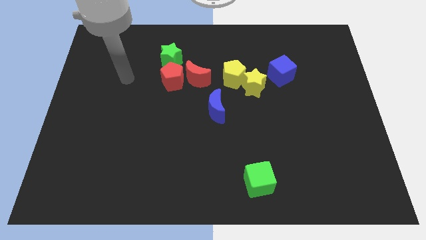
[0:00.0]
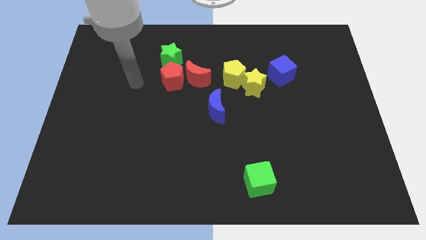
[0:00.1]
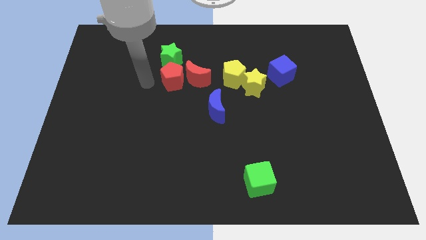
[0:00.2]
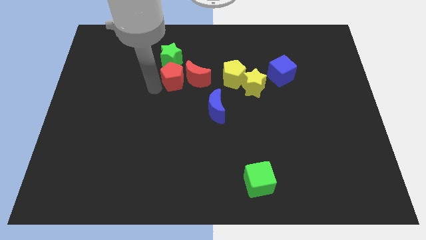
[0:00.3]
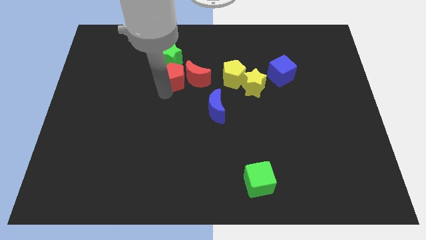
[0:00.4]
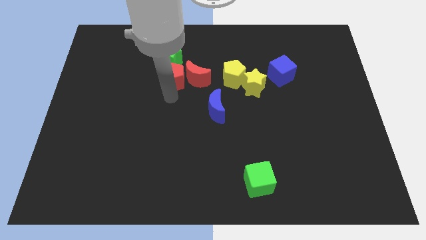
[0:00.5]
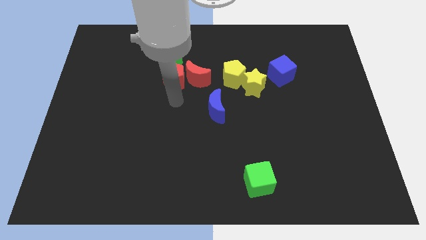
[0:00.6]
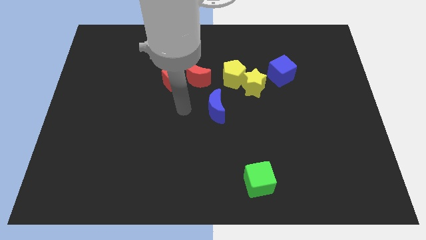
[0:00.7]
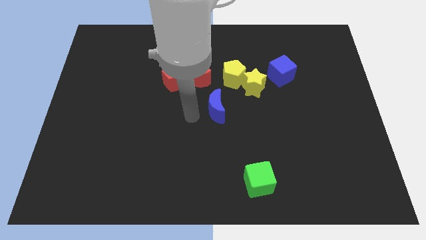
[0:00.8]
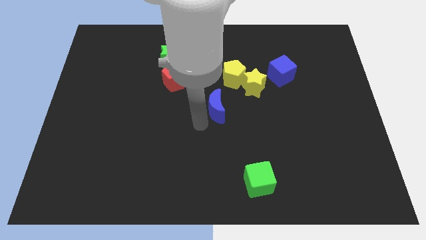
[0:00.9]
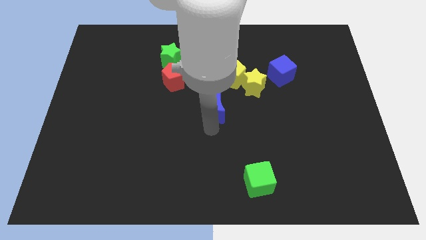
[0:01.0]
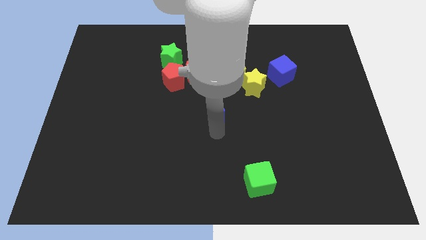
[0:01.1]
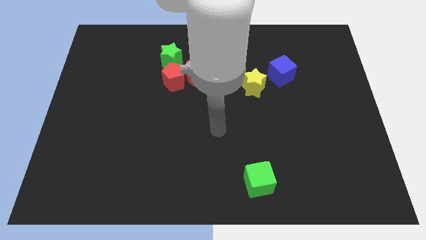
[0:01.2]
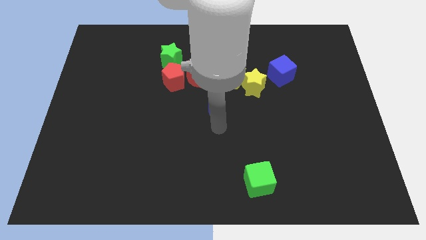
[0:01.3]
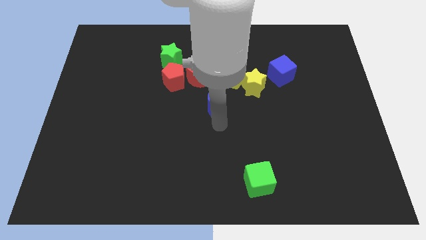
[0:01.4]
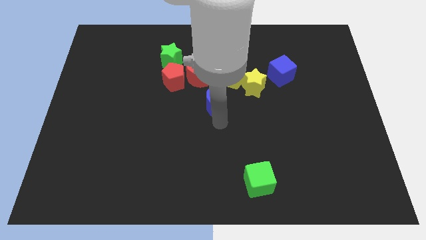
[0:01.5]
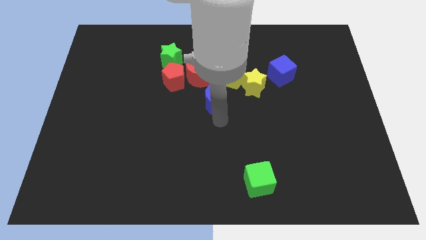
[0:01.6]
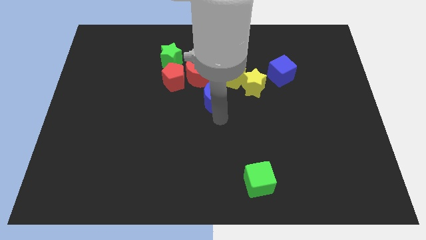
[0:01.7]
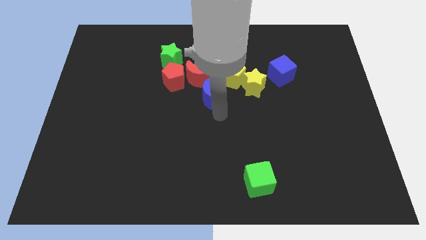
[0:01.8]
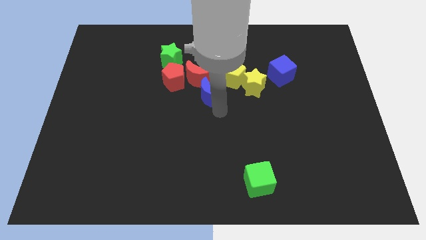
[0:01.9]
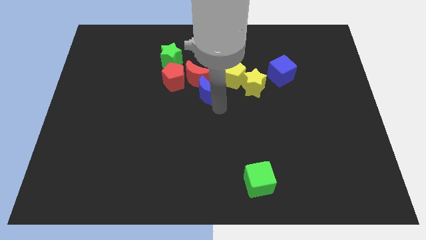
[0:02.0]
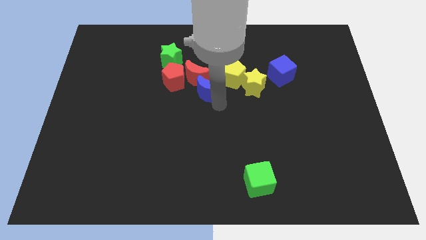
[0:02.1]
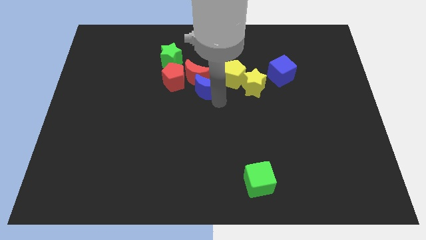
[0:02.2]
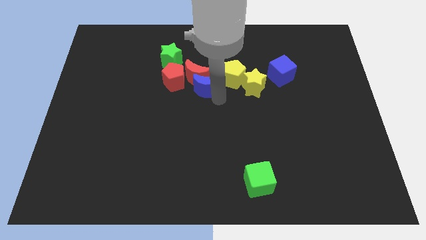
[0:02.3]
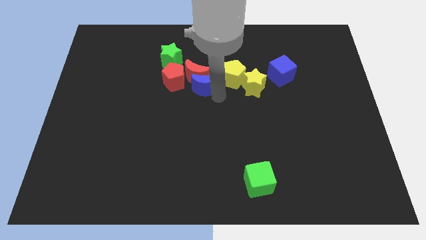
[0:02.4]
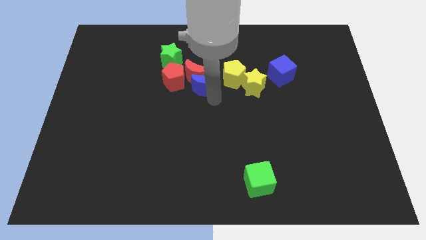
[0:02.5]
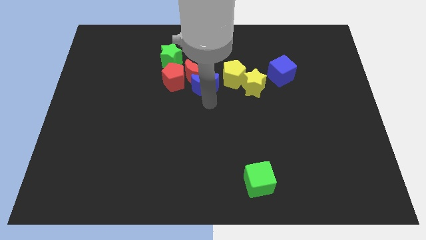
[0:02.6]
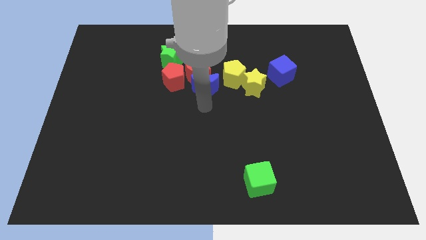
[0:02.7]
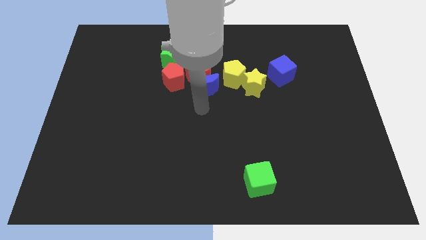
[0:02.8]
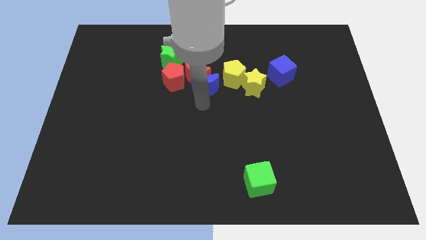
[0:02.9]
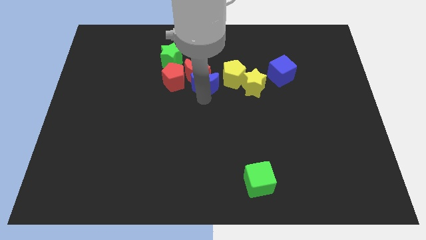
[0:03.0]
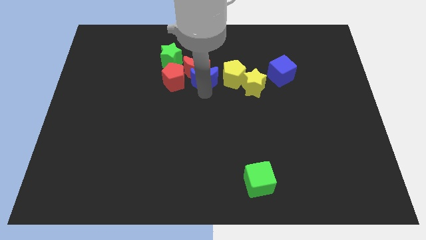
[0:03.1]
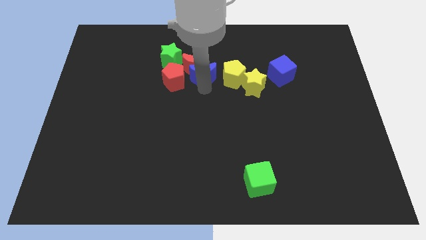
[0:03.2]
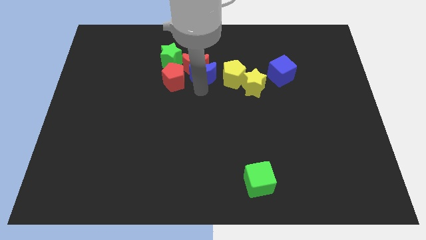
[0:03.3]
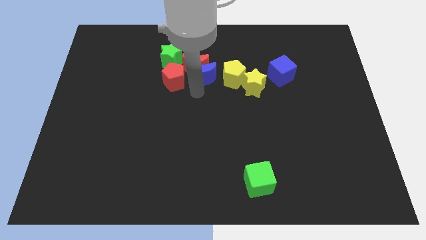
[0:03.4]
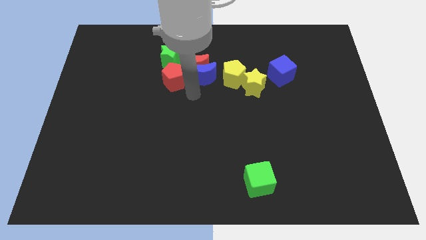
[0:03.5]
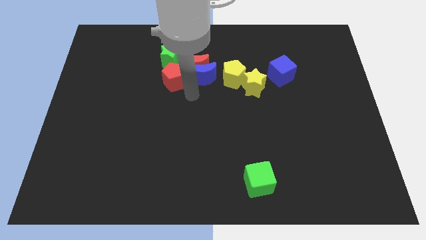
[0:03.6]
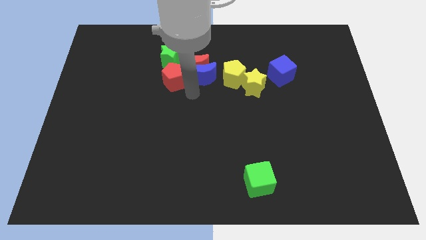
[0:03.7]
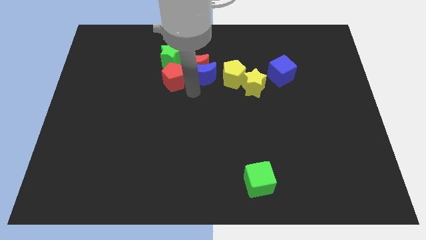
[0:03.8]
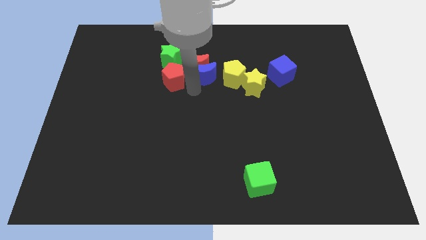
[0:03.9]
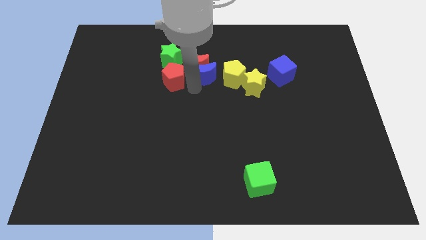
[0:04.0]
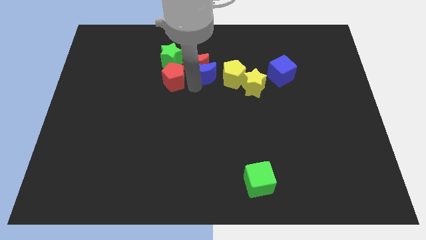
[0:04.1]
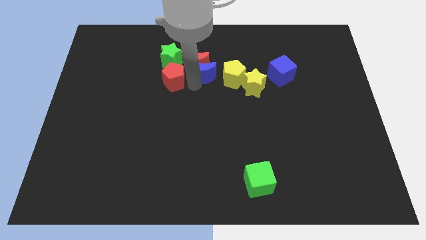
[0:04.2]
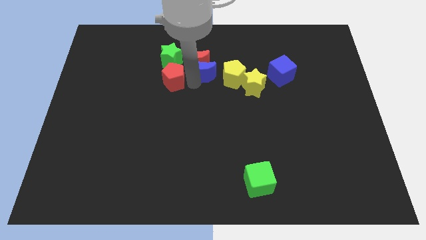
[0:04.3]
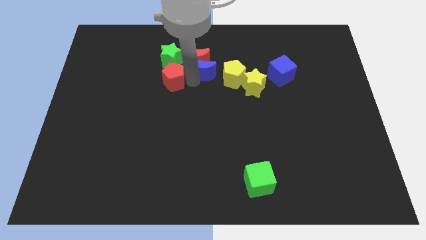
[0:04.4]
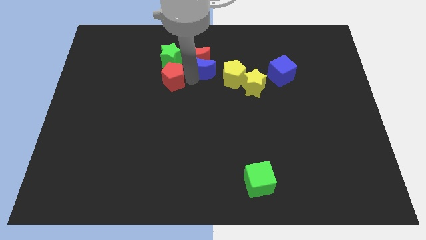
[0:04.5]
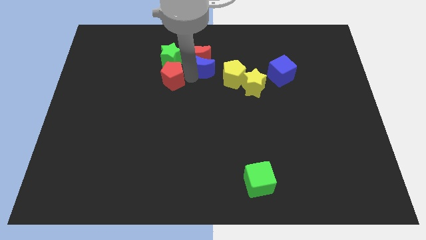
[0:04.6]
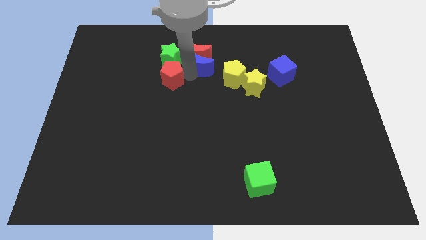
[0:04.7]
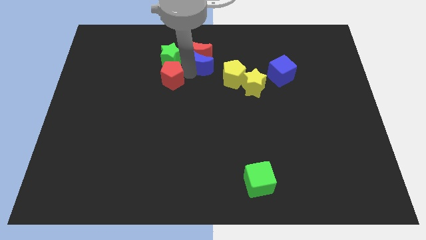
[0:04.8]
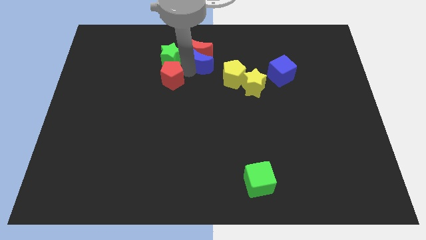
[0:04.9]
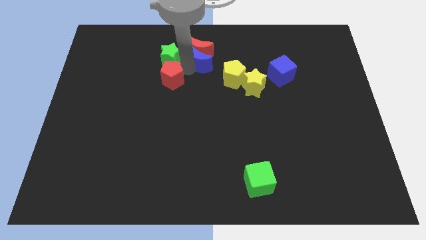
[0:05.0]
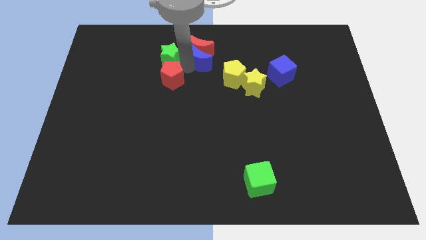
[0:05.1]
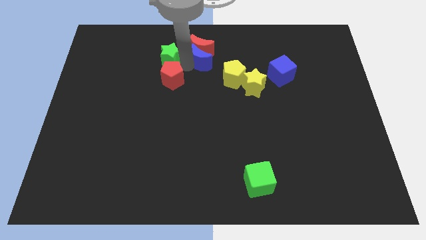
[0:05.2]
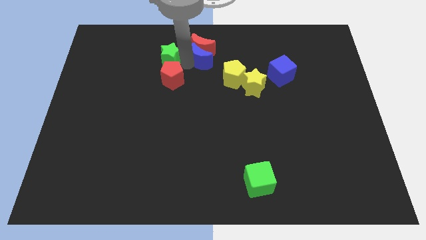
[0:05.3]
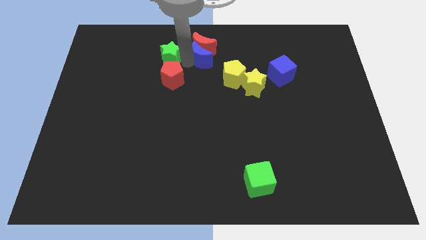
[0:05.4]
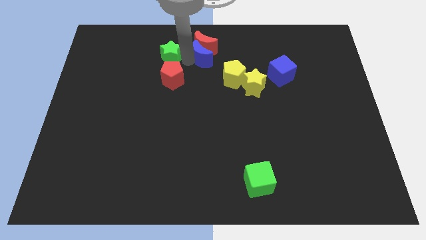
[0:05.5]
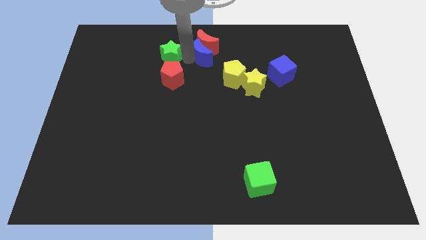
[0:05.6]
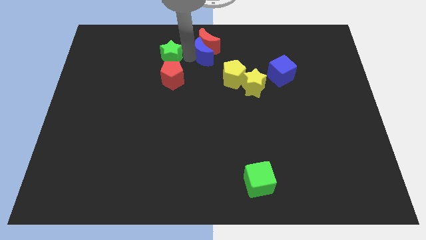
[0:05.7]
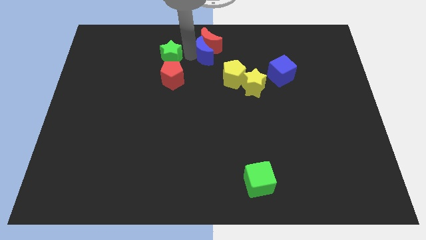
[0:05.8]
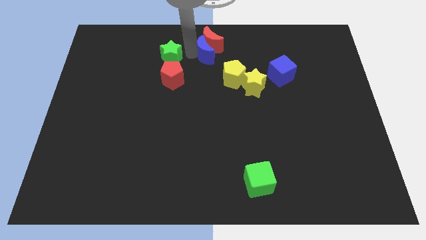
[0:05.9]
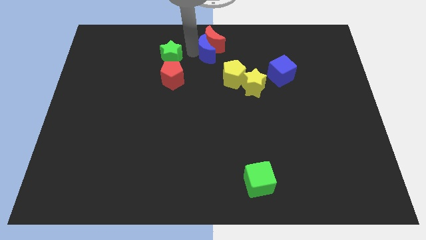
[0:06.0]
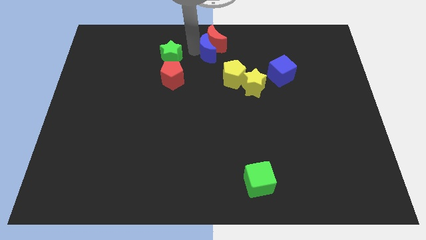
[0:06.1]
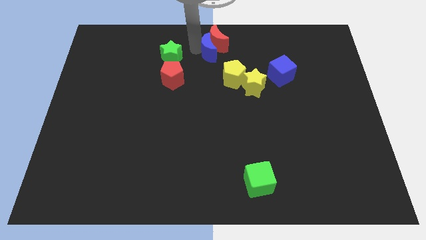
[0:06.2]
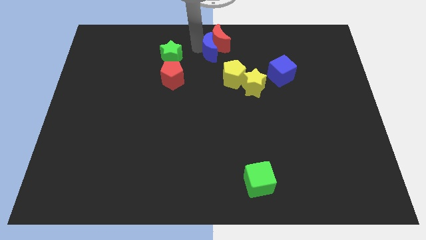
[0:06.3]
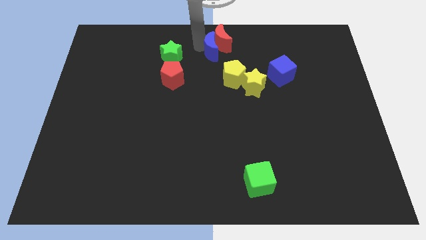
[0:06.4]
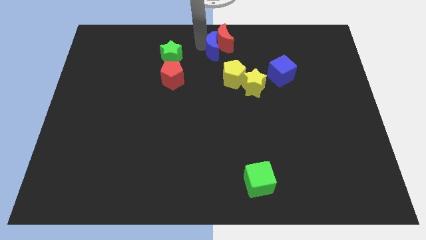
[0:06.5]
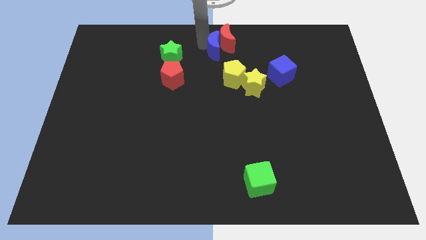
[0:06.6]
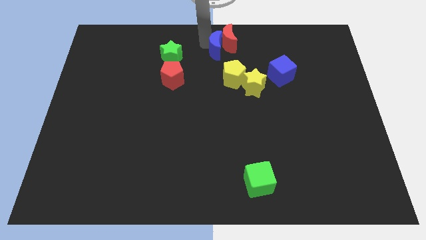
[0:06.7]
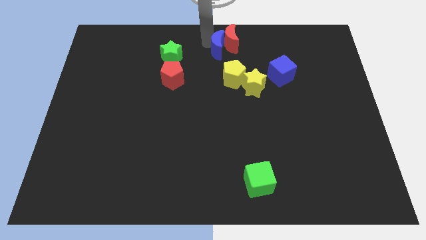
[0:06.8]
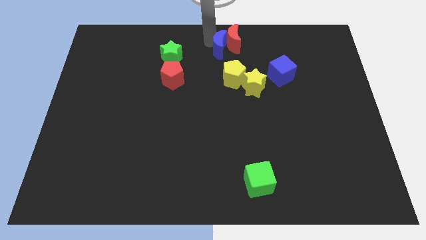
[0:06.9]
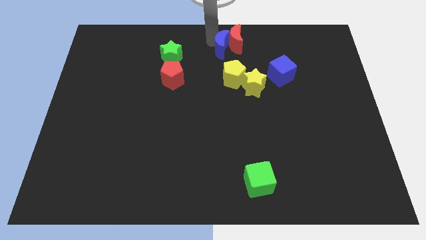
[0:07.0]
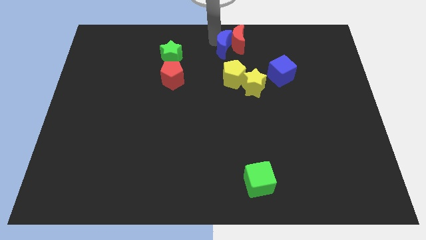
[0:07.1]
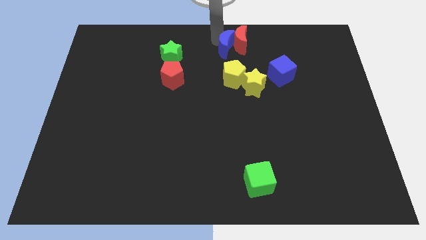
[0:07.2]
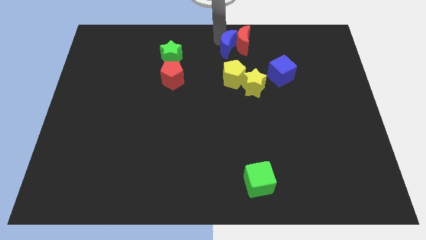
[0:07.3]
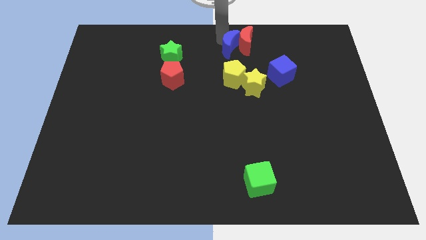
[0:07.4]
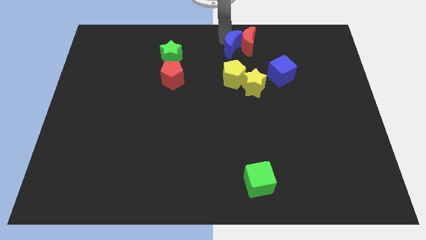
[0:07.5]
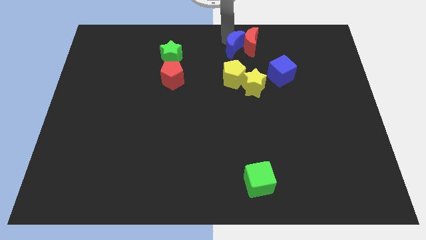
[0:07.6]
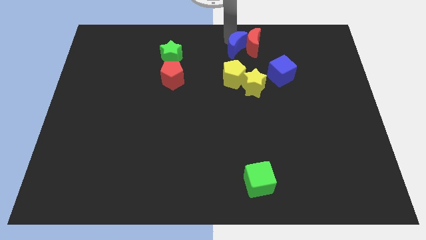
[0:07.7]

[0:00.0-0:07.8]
push the blue moon to the top of the yellow star
